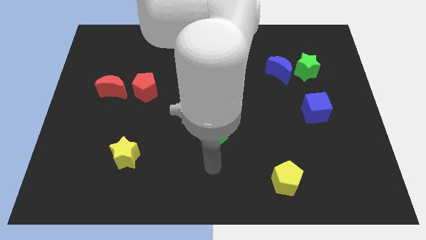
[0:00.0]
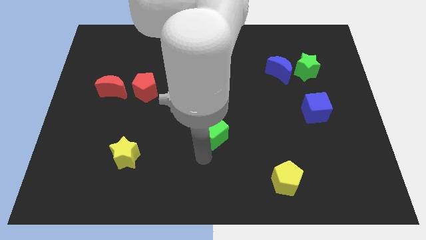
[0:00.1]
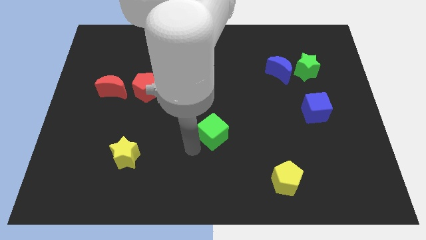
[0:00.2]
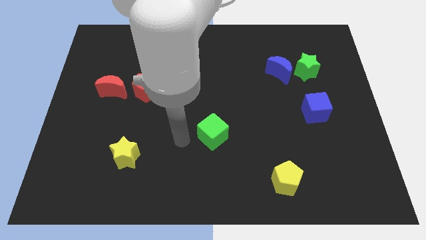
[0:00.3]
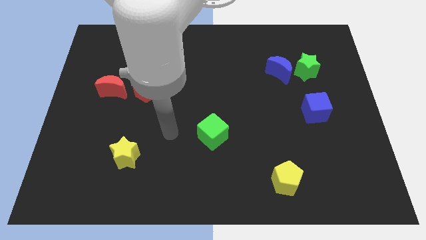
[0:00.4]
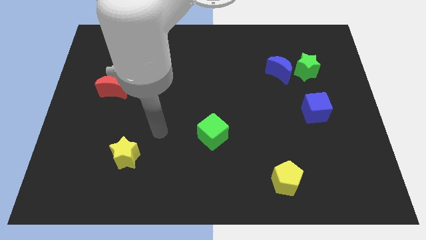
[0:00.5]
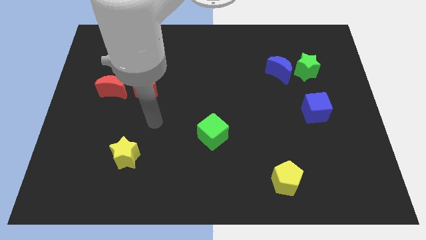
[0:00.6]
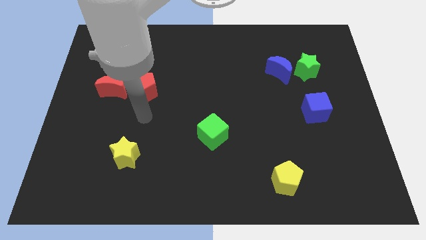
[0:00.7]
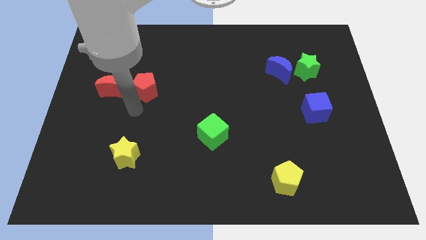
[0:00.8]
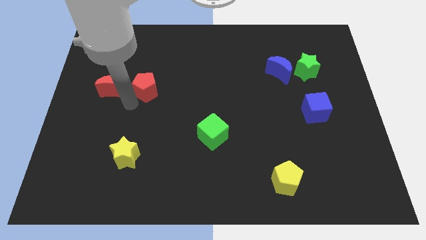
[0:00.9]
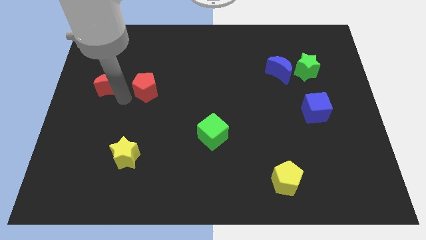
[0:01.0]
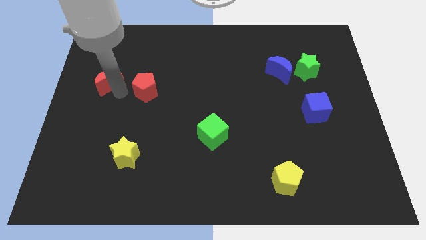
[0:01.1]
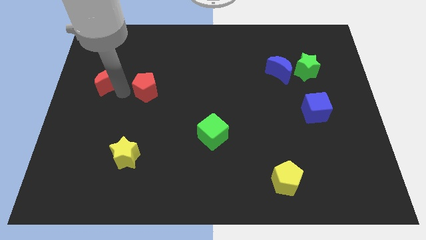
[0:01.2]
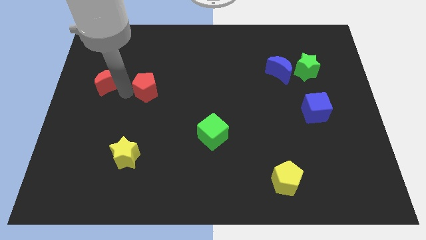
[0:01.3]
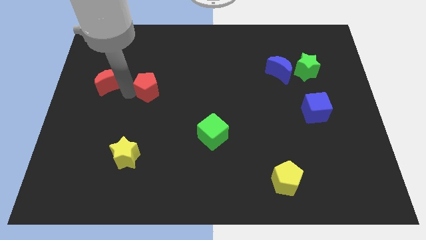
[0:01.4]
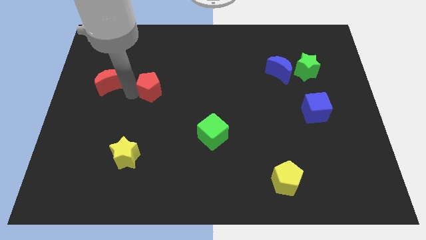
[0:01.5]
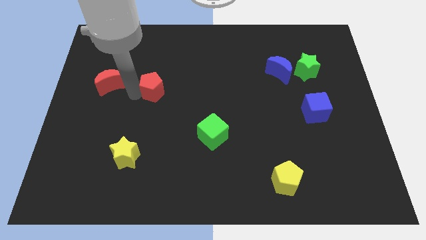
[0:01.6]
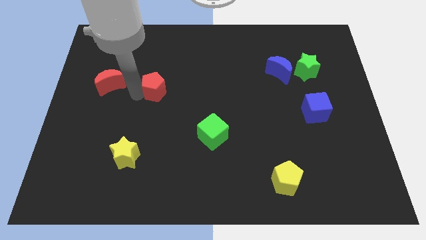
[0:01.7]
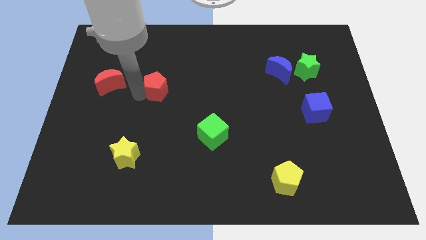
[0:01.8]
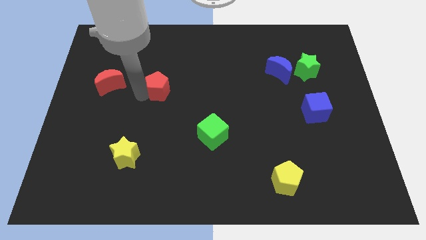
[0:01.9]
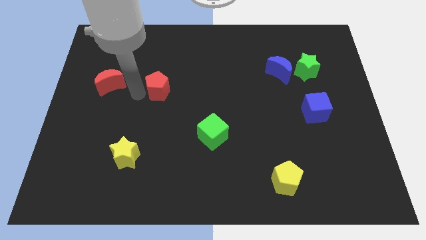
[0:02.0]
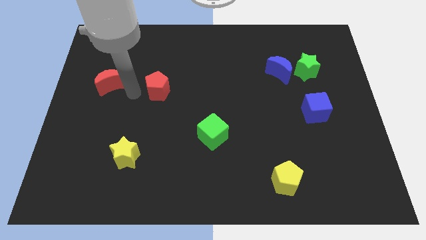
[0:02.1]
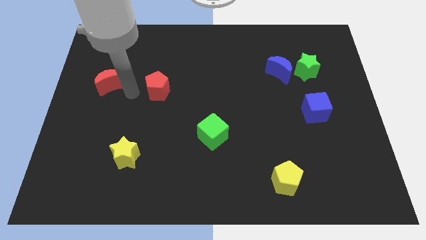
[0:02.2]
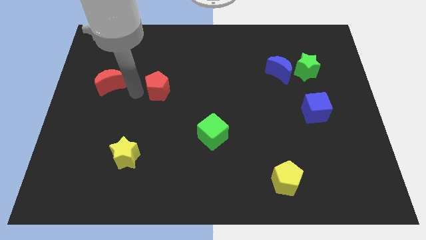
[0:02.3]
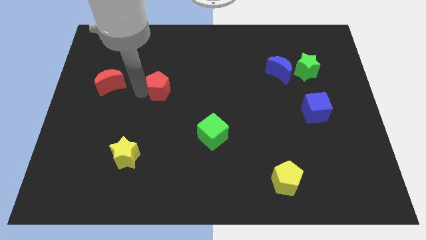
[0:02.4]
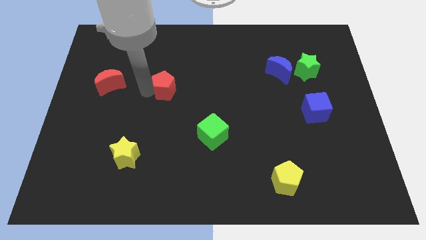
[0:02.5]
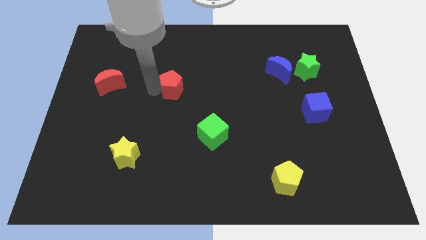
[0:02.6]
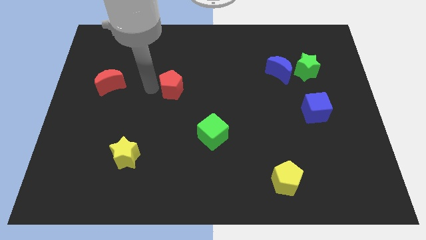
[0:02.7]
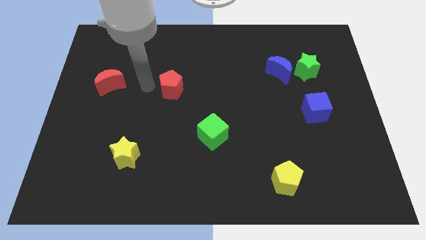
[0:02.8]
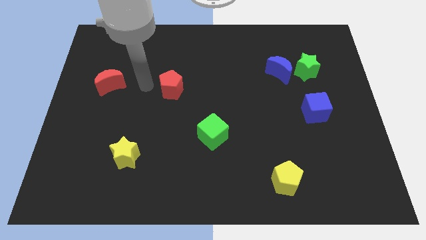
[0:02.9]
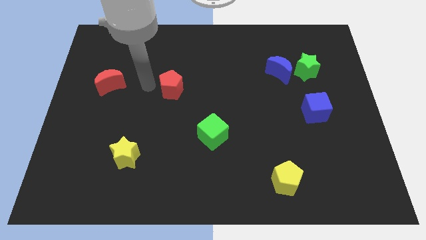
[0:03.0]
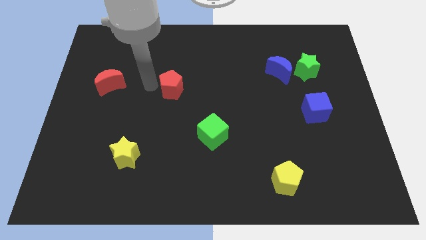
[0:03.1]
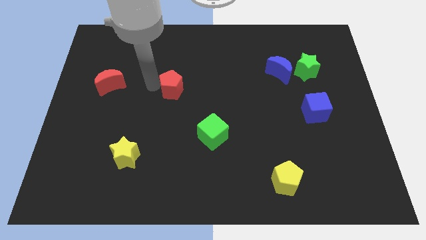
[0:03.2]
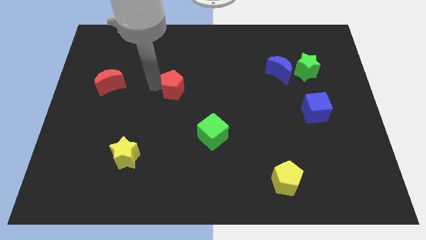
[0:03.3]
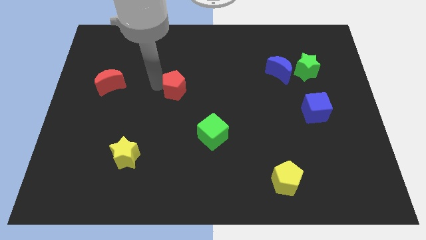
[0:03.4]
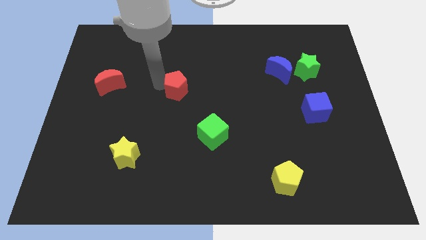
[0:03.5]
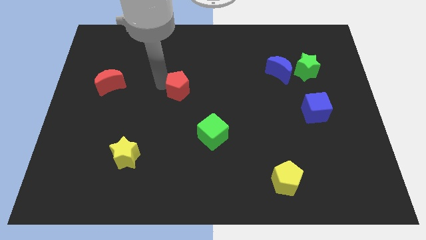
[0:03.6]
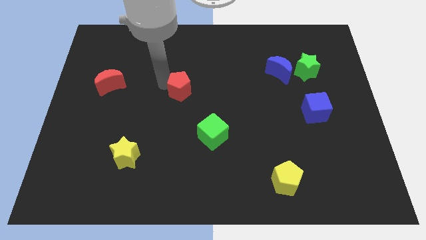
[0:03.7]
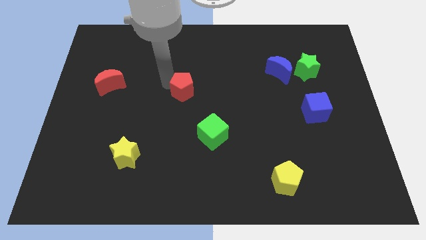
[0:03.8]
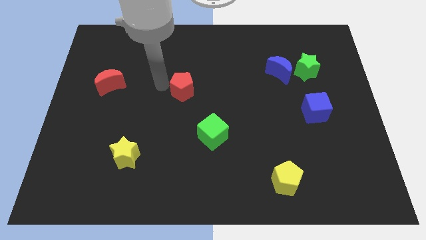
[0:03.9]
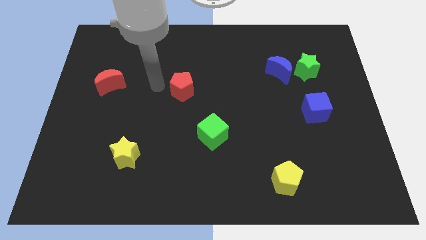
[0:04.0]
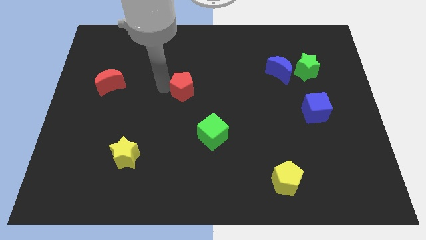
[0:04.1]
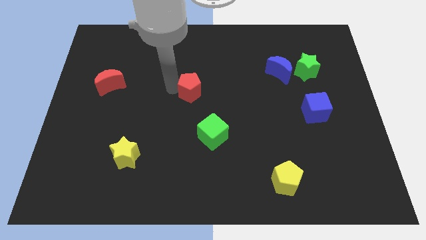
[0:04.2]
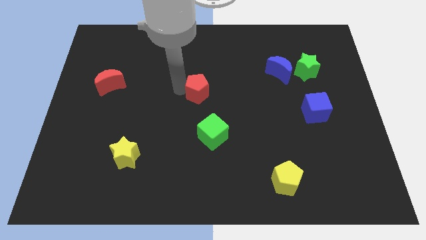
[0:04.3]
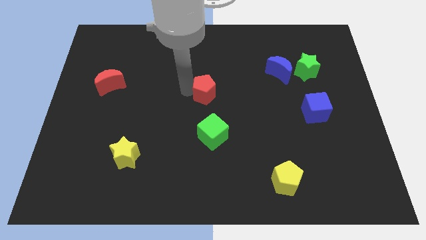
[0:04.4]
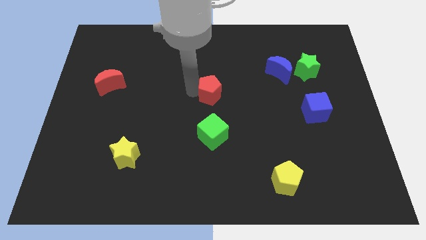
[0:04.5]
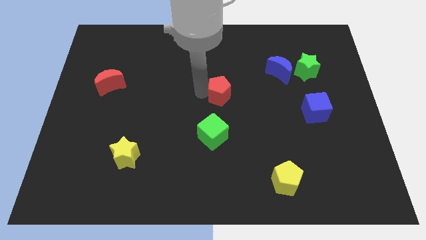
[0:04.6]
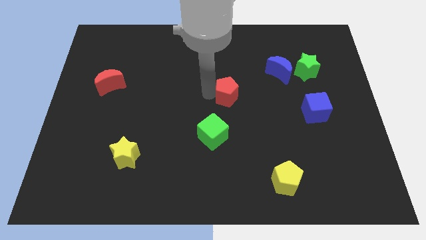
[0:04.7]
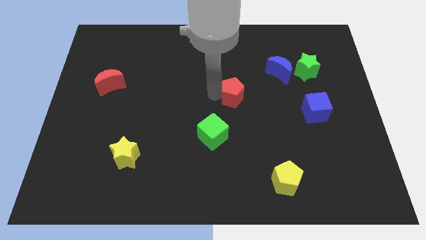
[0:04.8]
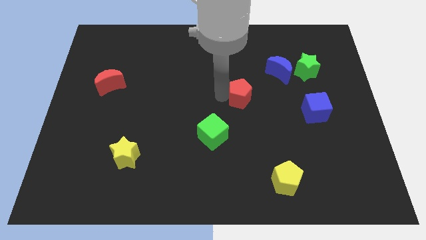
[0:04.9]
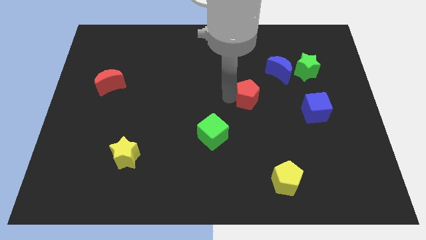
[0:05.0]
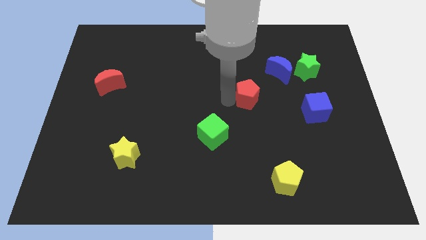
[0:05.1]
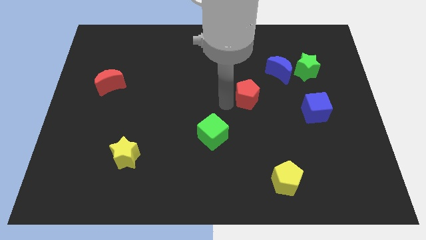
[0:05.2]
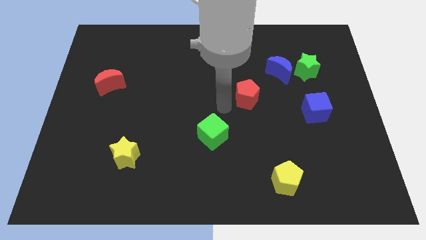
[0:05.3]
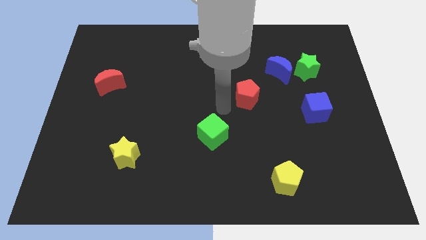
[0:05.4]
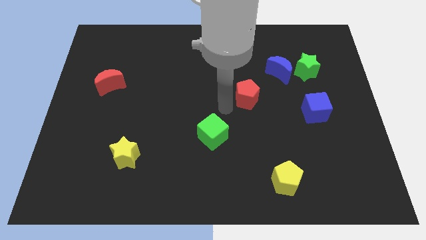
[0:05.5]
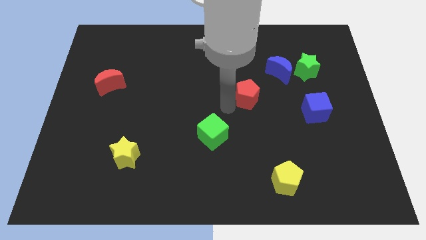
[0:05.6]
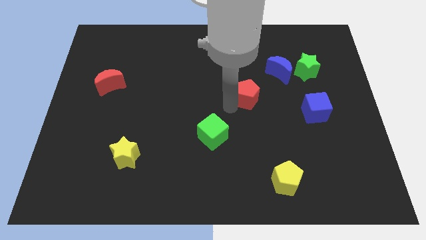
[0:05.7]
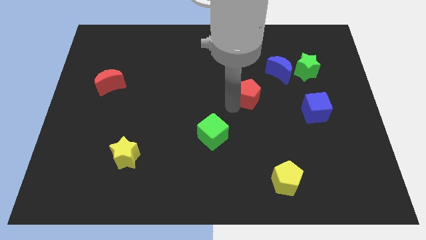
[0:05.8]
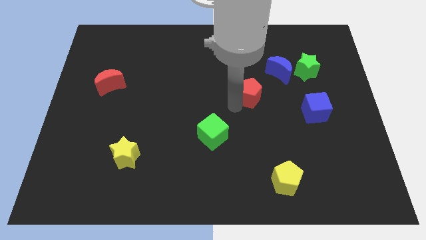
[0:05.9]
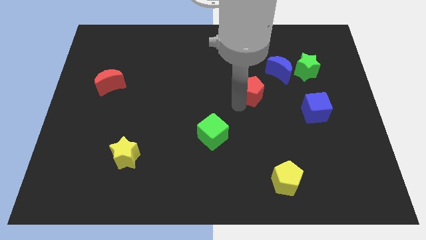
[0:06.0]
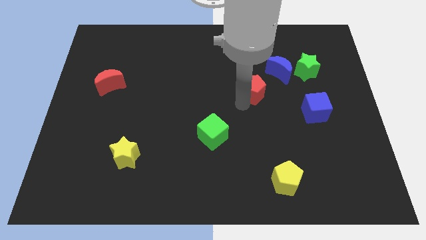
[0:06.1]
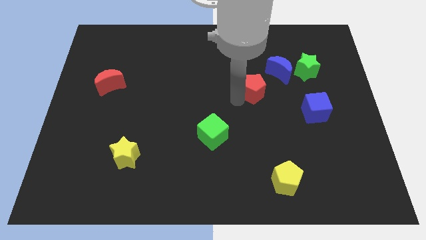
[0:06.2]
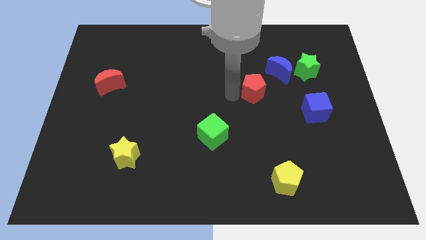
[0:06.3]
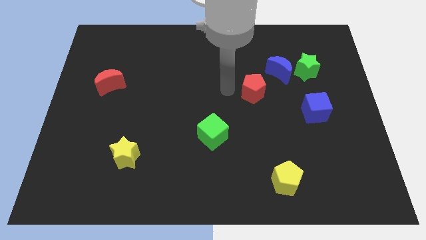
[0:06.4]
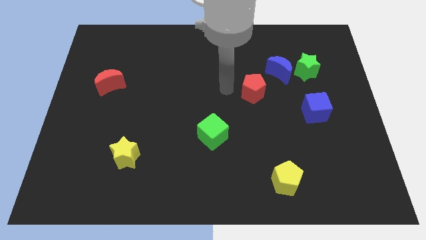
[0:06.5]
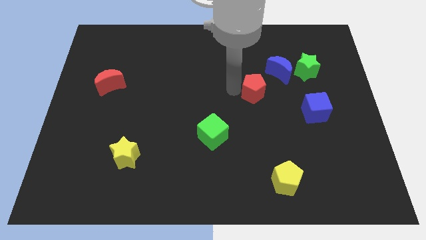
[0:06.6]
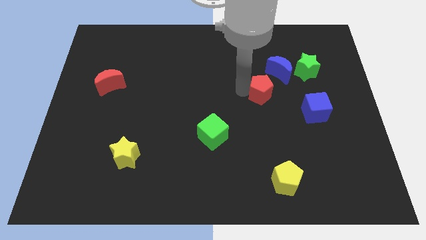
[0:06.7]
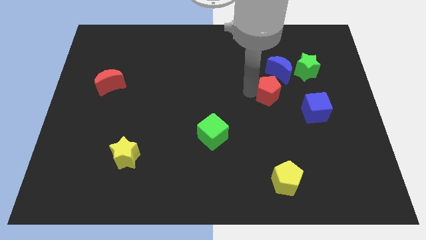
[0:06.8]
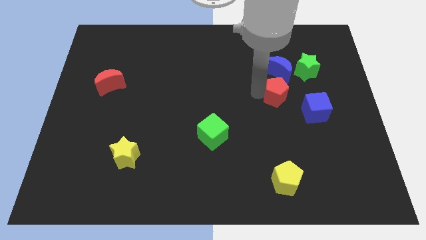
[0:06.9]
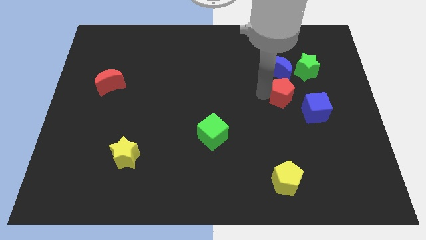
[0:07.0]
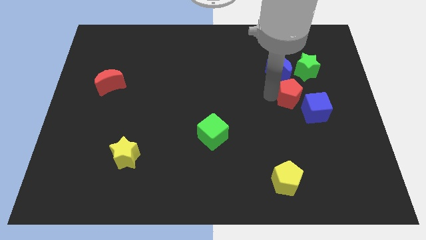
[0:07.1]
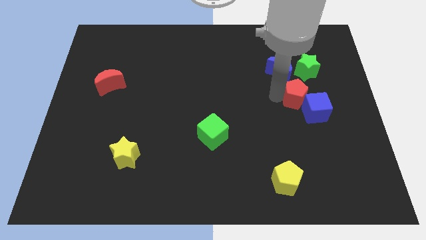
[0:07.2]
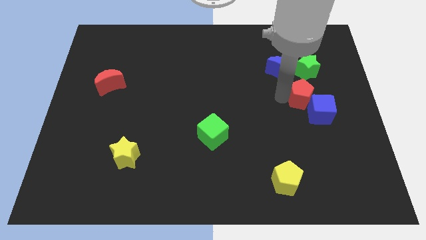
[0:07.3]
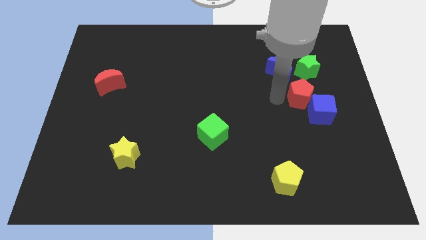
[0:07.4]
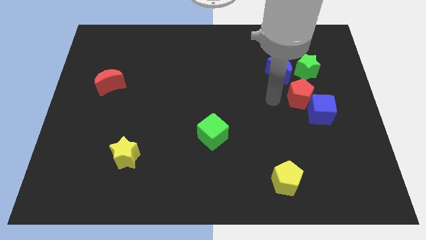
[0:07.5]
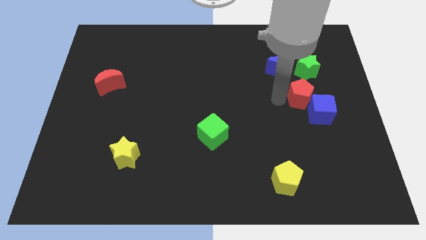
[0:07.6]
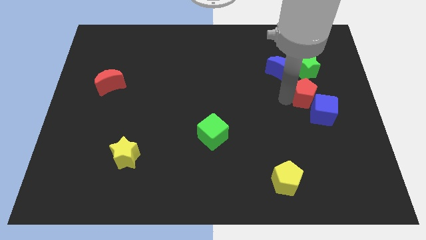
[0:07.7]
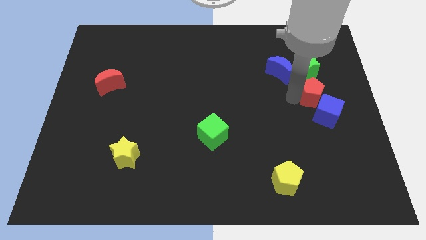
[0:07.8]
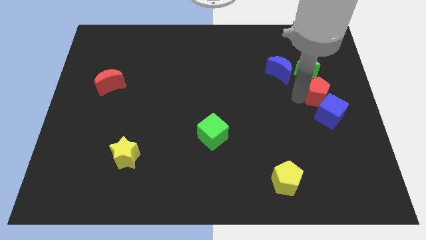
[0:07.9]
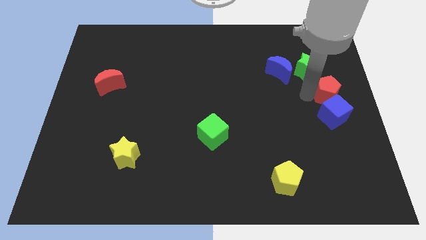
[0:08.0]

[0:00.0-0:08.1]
push the red pentagon to the right side of the board
